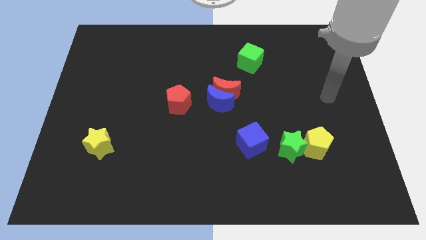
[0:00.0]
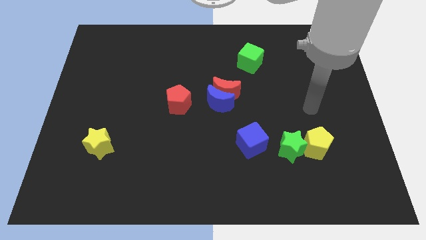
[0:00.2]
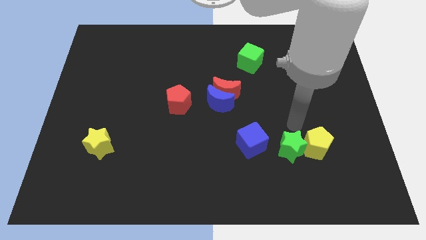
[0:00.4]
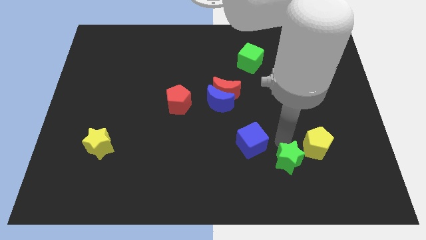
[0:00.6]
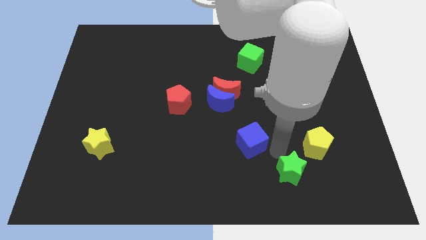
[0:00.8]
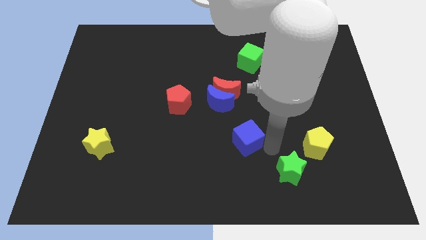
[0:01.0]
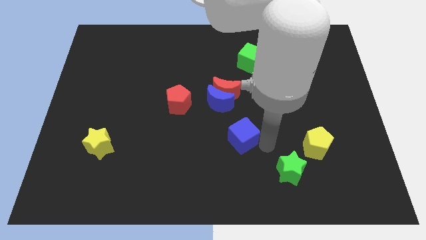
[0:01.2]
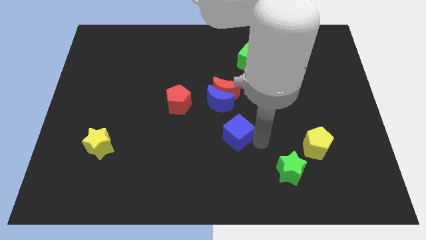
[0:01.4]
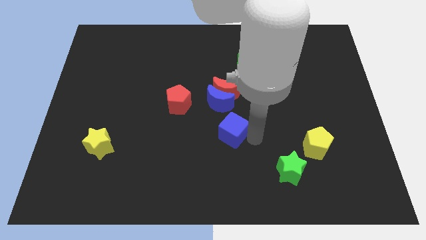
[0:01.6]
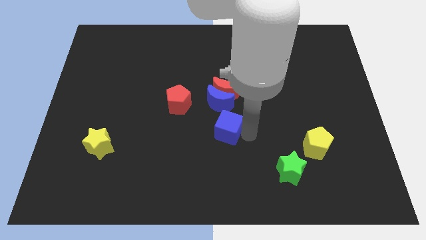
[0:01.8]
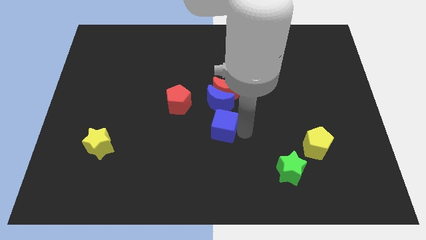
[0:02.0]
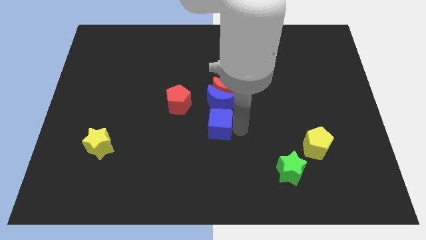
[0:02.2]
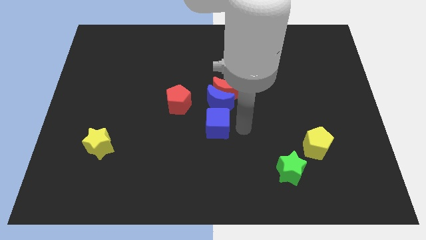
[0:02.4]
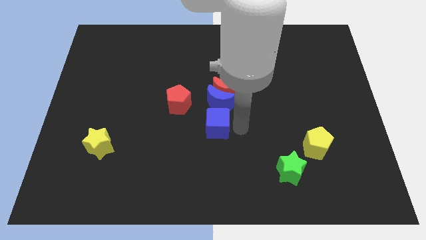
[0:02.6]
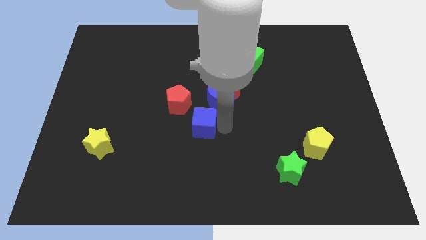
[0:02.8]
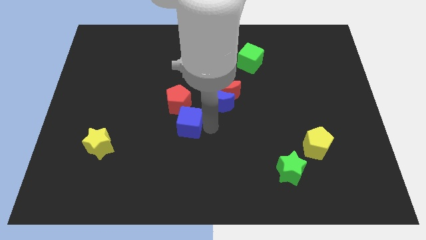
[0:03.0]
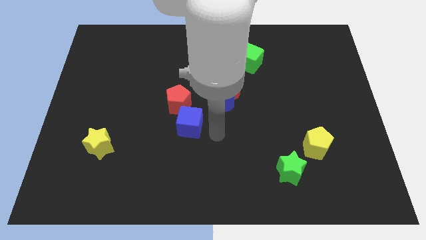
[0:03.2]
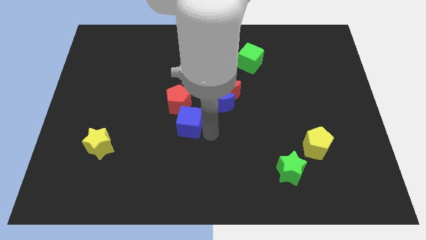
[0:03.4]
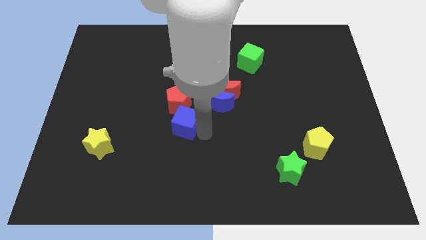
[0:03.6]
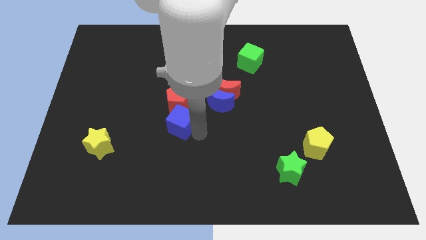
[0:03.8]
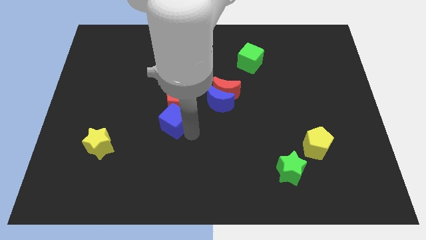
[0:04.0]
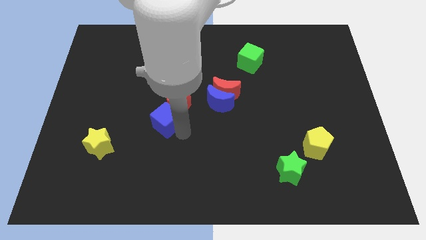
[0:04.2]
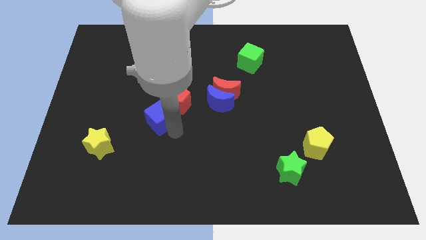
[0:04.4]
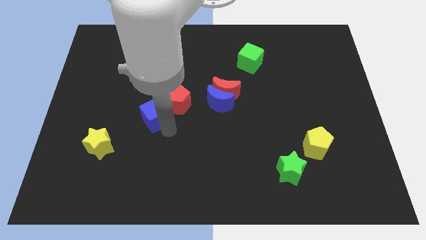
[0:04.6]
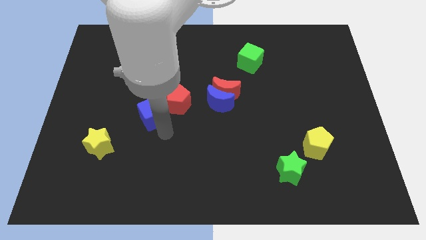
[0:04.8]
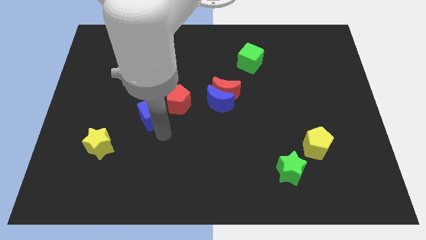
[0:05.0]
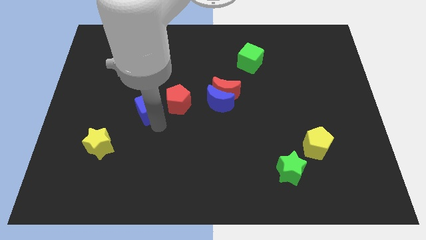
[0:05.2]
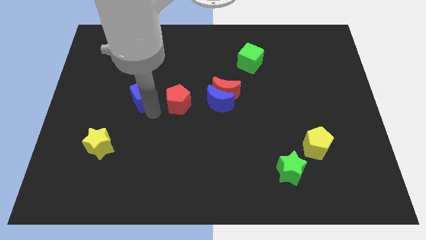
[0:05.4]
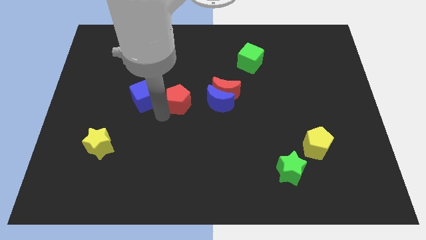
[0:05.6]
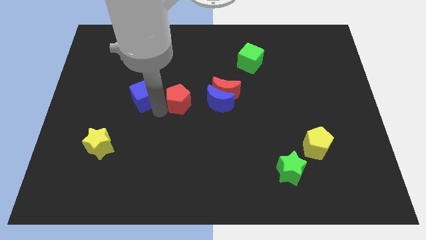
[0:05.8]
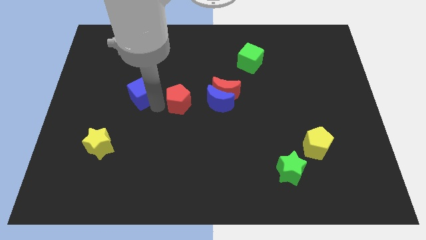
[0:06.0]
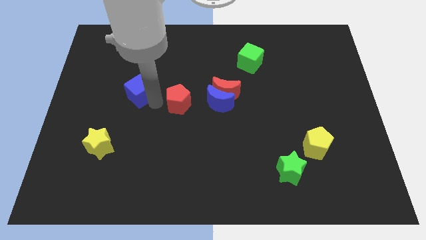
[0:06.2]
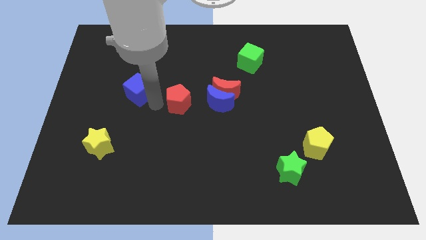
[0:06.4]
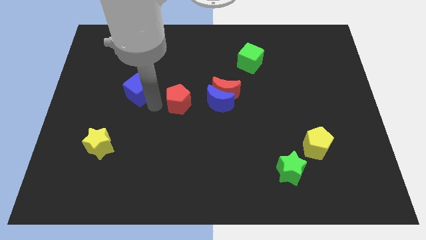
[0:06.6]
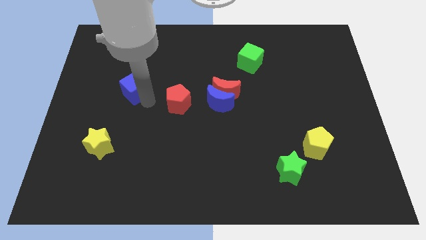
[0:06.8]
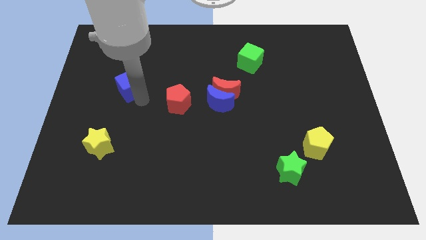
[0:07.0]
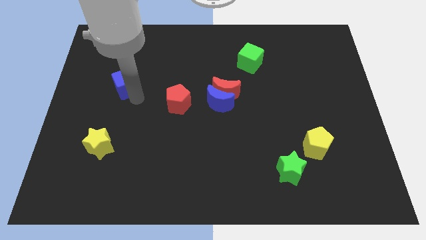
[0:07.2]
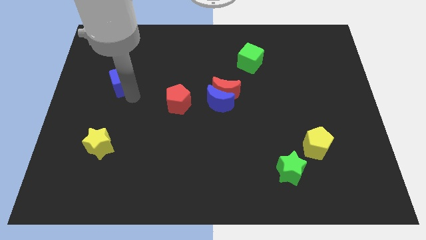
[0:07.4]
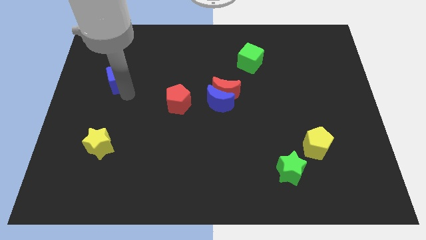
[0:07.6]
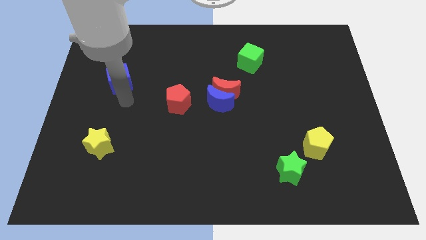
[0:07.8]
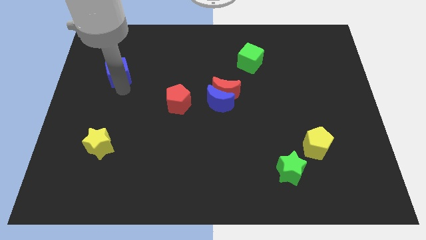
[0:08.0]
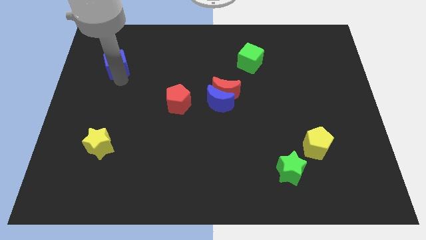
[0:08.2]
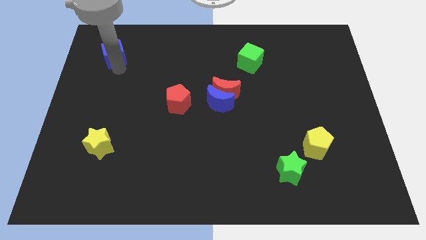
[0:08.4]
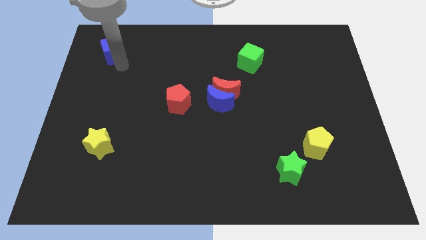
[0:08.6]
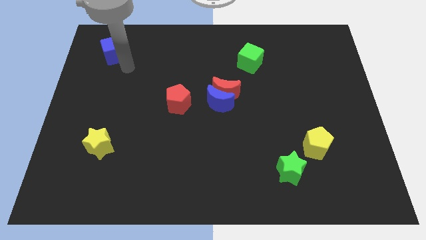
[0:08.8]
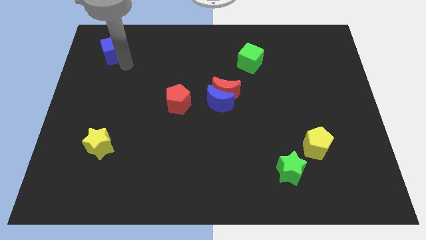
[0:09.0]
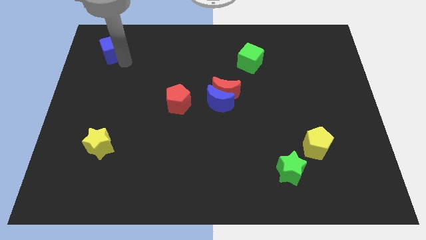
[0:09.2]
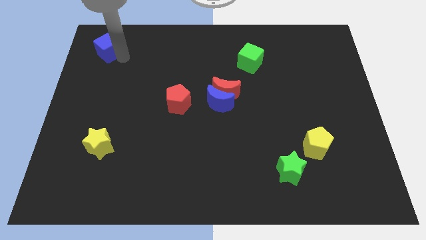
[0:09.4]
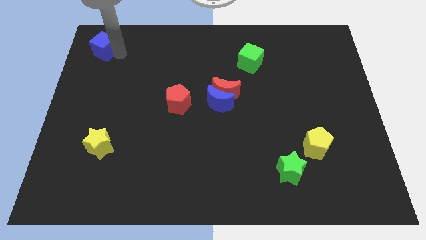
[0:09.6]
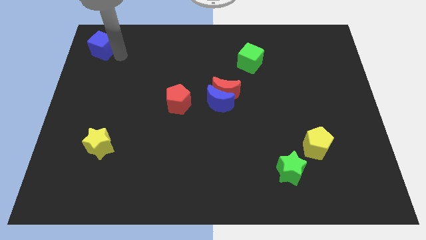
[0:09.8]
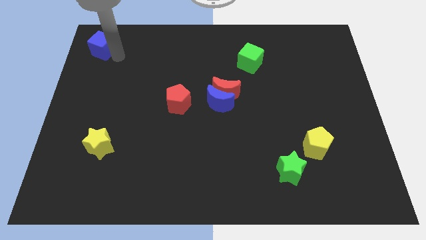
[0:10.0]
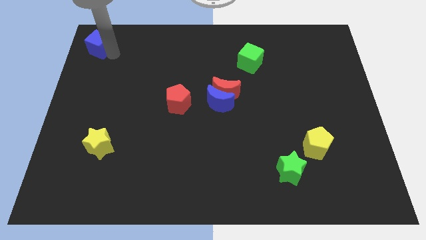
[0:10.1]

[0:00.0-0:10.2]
put the blue cube to the upper left corner

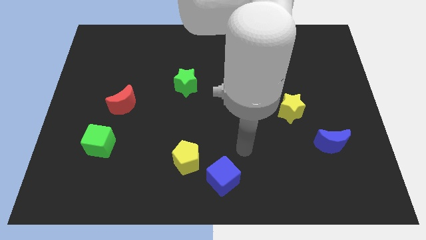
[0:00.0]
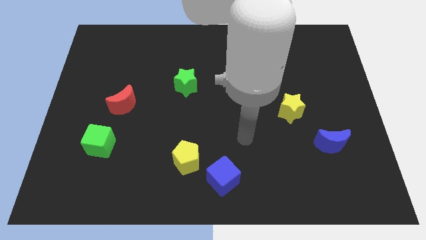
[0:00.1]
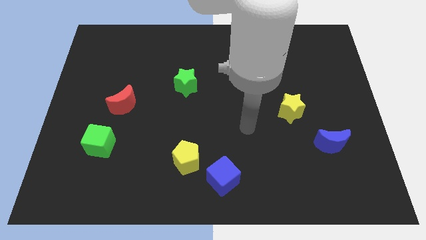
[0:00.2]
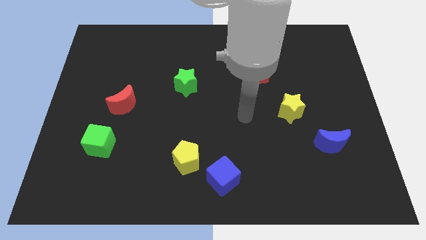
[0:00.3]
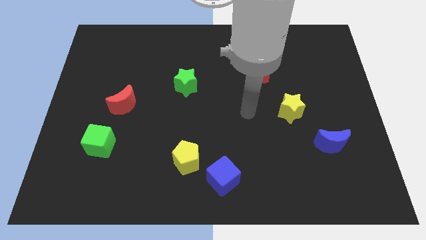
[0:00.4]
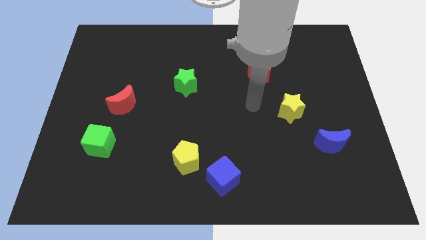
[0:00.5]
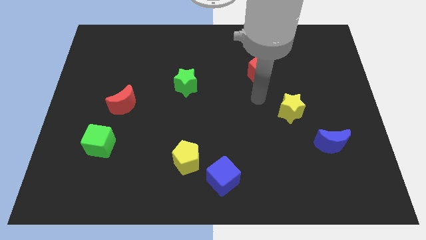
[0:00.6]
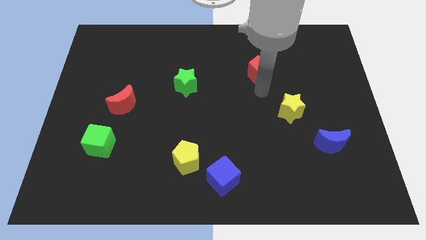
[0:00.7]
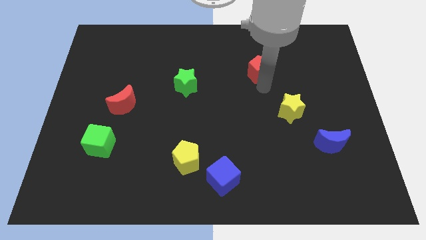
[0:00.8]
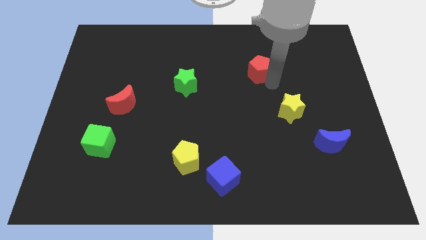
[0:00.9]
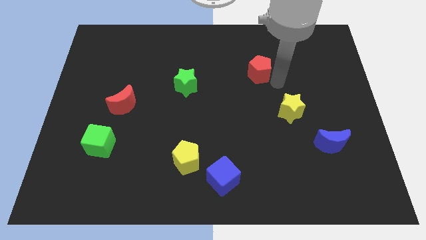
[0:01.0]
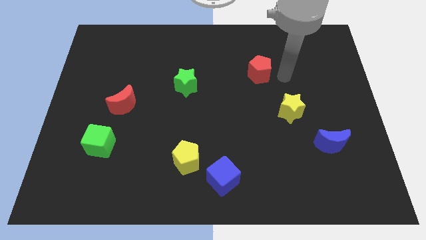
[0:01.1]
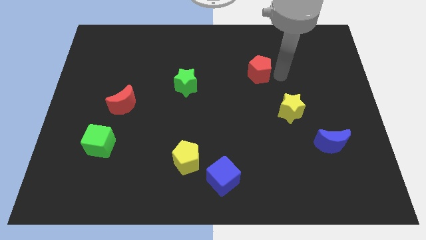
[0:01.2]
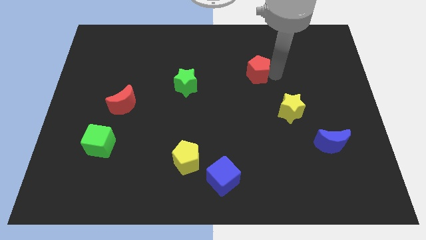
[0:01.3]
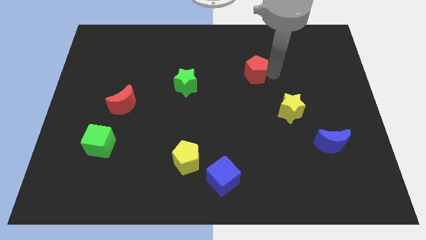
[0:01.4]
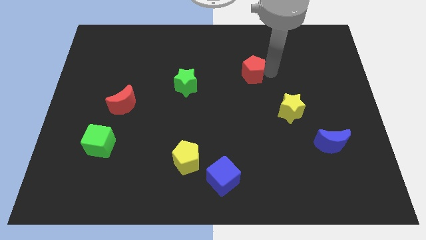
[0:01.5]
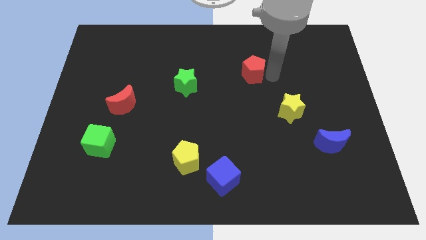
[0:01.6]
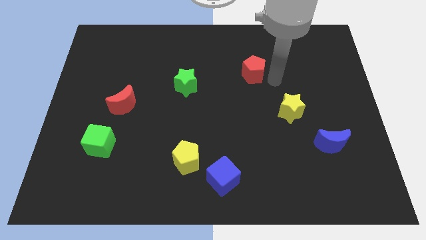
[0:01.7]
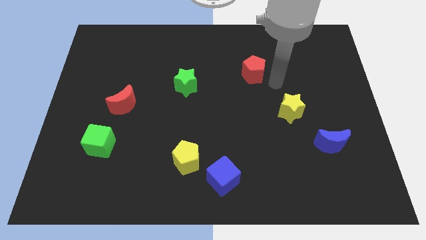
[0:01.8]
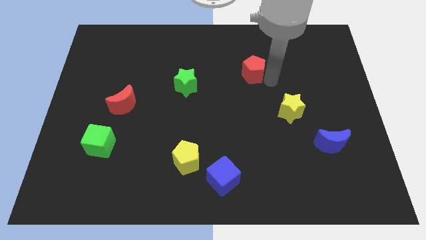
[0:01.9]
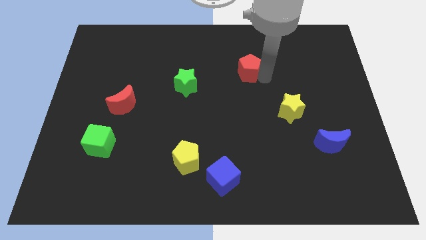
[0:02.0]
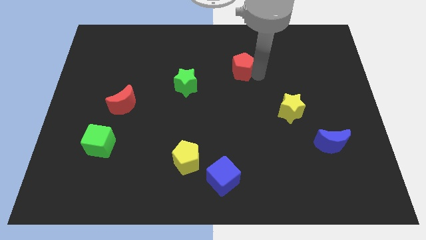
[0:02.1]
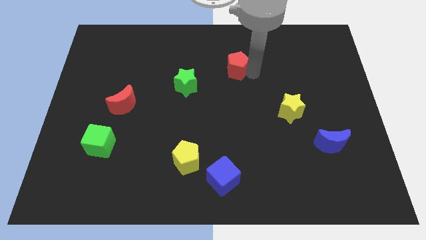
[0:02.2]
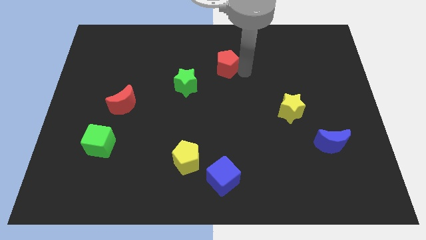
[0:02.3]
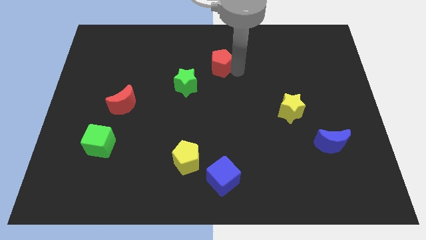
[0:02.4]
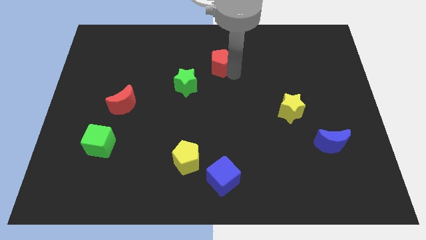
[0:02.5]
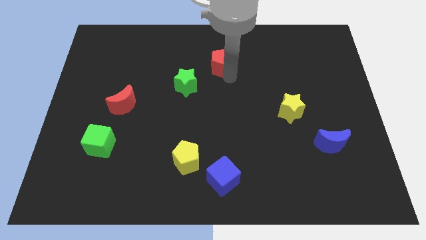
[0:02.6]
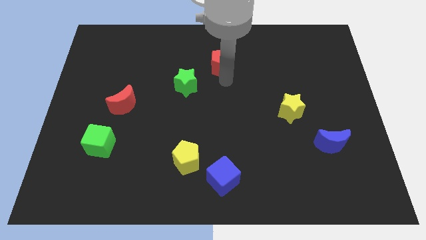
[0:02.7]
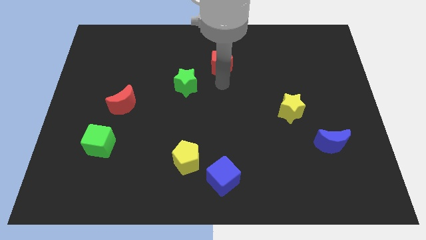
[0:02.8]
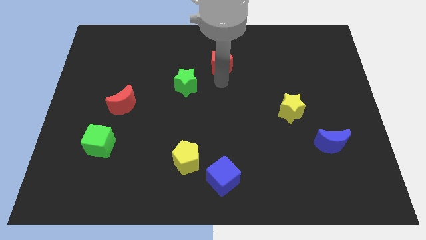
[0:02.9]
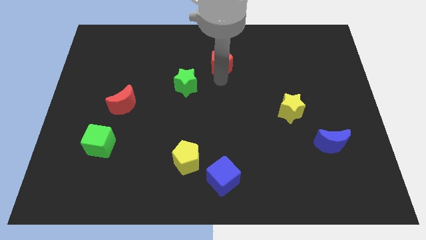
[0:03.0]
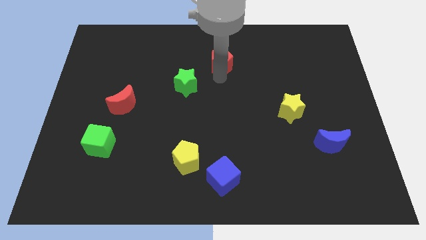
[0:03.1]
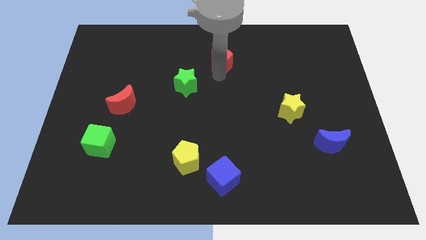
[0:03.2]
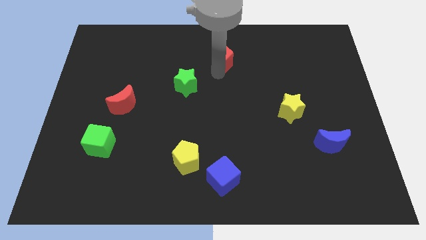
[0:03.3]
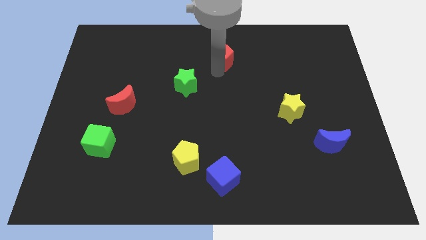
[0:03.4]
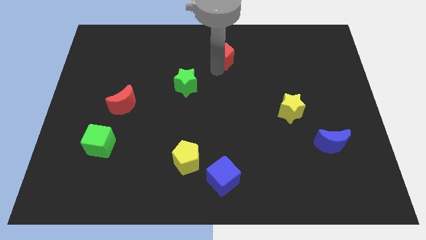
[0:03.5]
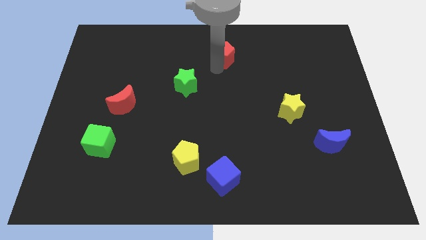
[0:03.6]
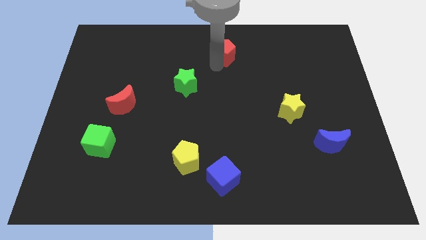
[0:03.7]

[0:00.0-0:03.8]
move the red pentagon to the towards your base
